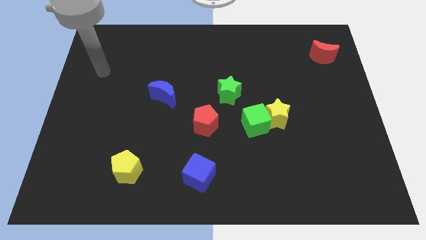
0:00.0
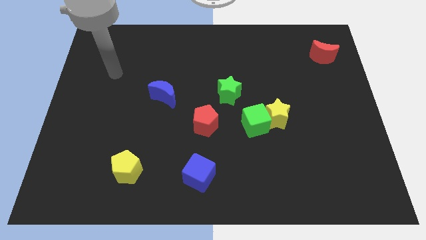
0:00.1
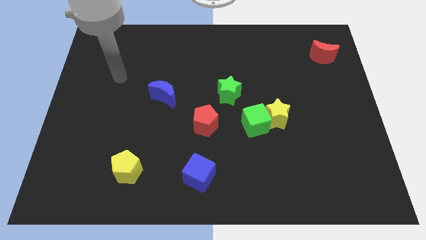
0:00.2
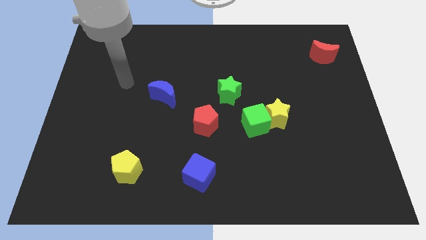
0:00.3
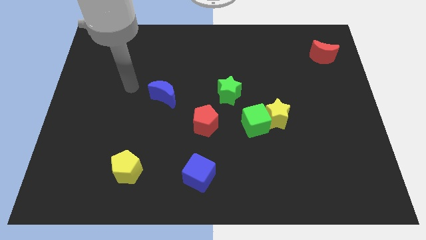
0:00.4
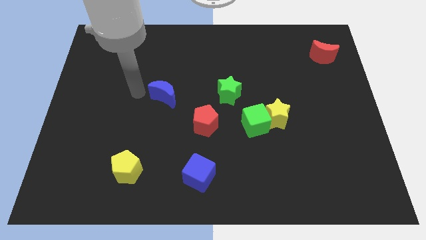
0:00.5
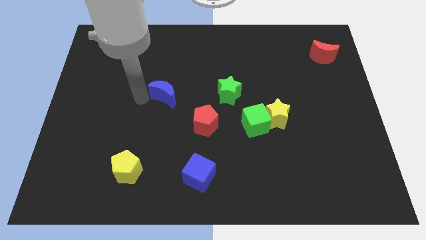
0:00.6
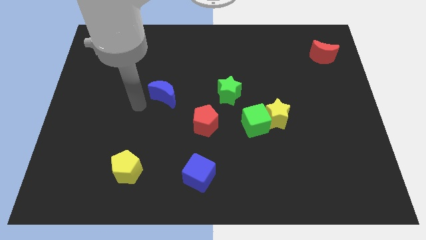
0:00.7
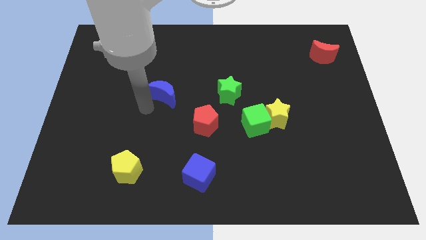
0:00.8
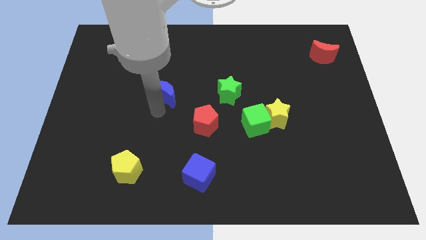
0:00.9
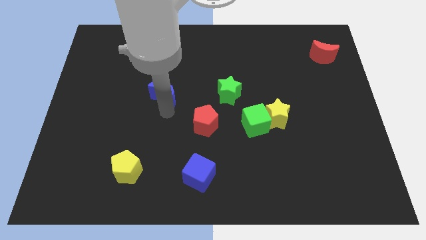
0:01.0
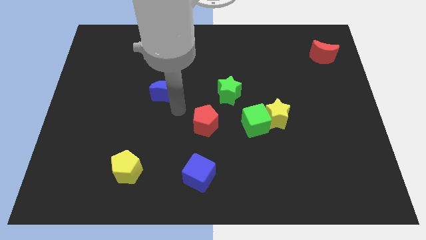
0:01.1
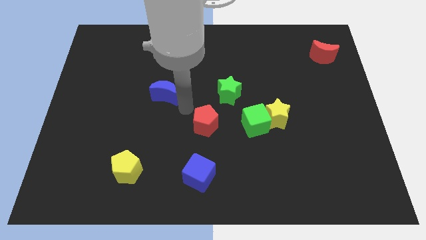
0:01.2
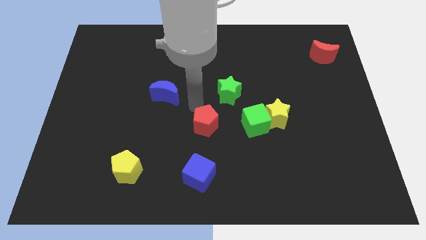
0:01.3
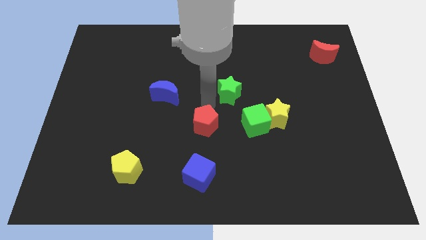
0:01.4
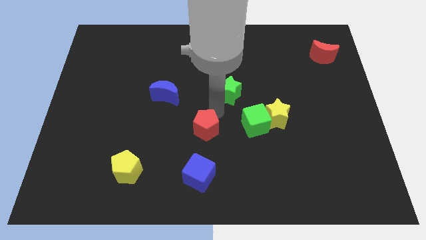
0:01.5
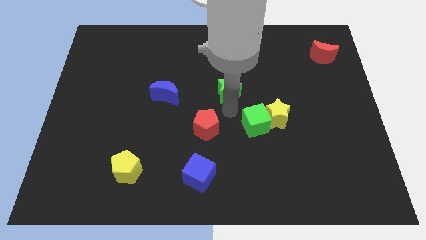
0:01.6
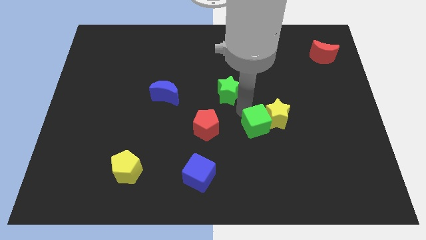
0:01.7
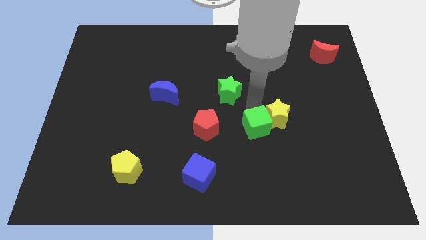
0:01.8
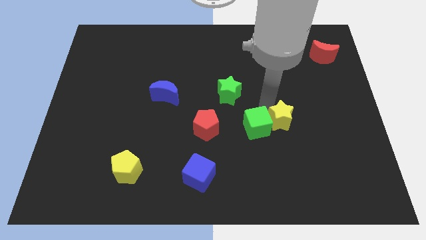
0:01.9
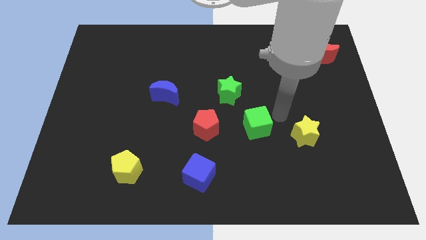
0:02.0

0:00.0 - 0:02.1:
move the green cube away from the yellow star

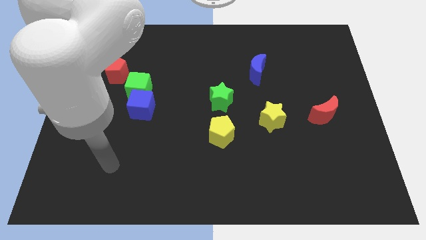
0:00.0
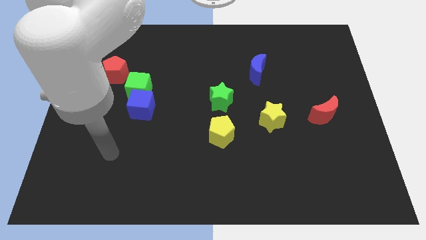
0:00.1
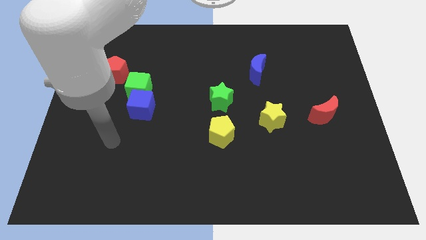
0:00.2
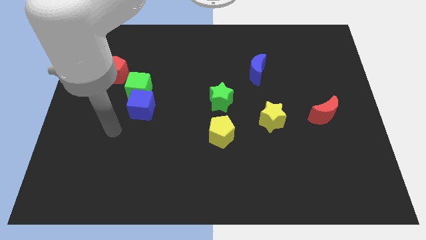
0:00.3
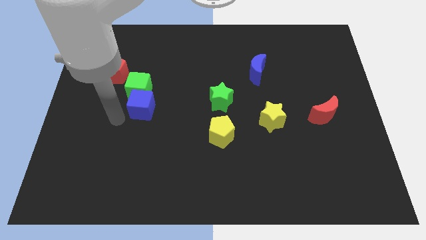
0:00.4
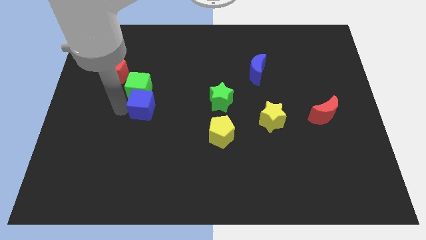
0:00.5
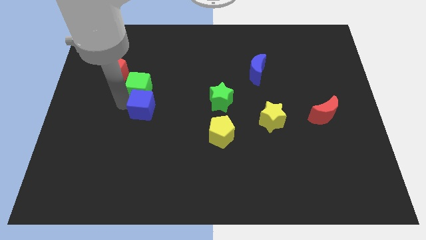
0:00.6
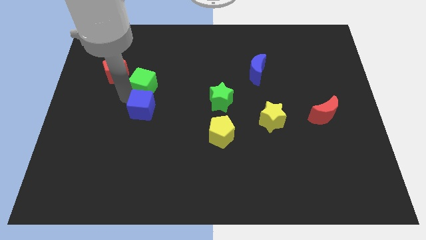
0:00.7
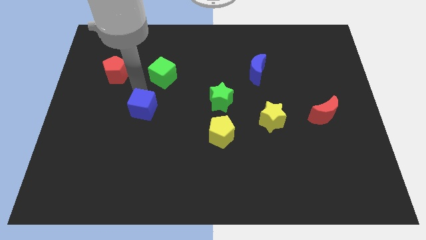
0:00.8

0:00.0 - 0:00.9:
separate the blue cube from the green cube

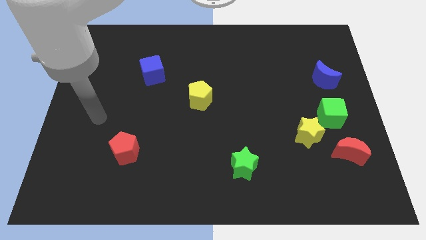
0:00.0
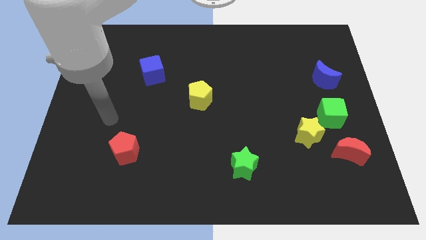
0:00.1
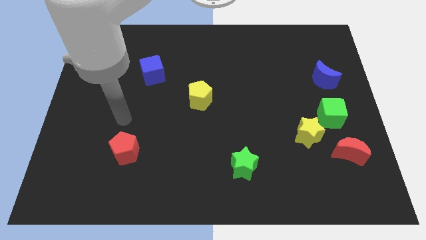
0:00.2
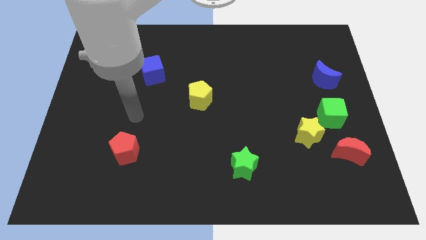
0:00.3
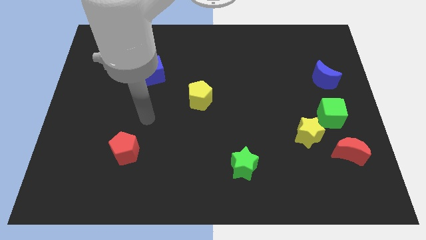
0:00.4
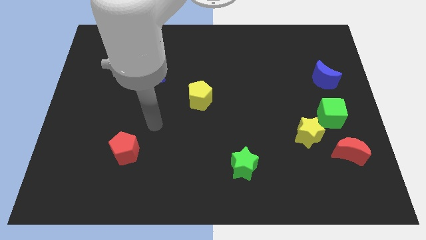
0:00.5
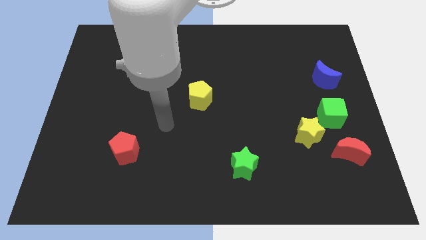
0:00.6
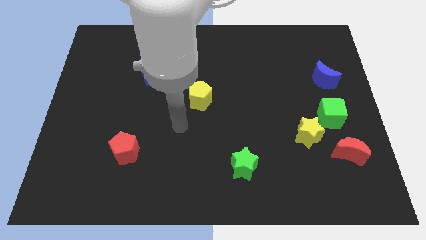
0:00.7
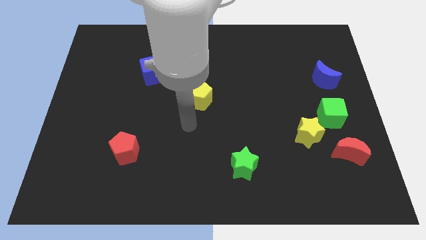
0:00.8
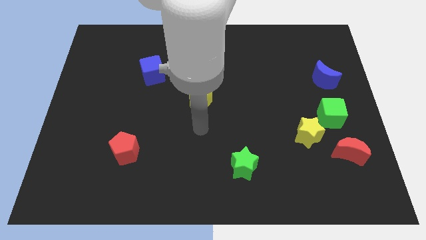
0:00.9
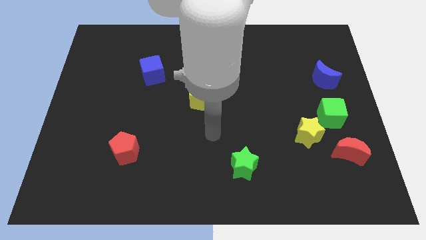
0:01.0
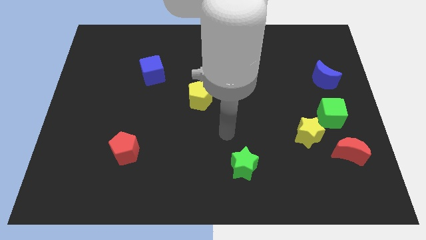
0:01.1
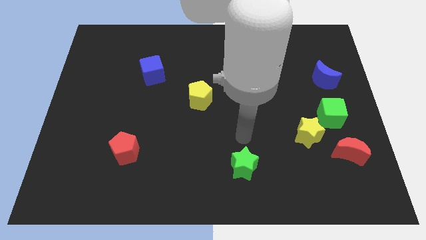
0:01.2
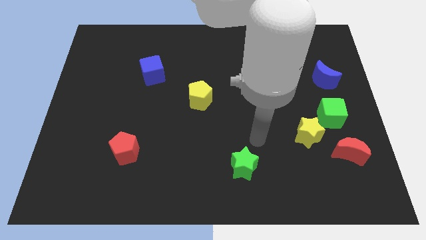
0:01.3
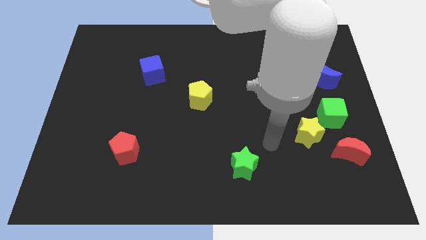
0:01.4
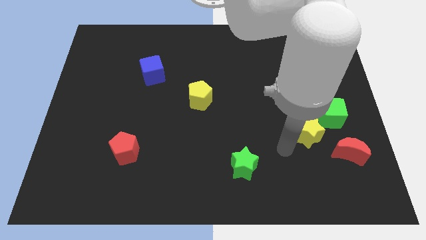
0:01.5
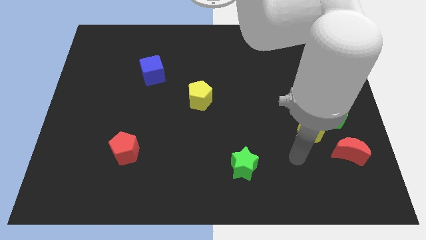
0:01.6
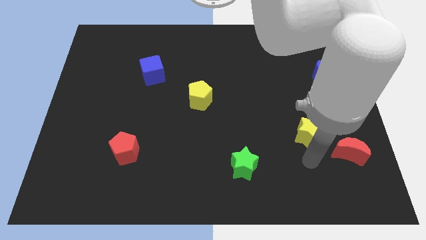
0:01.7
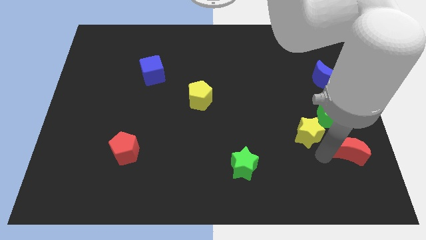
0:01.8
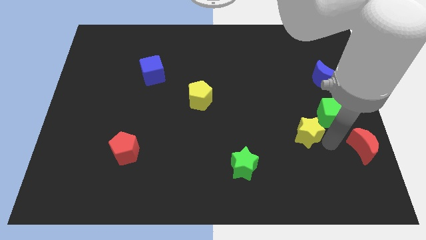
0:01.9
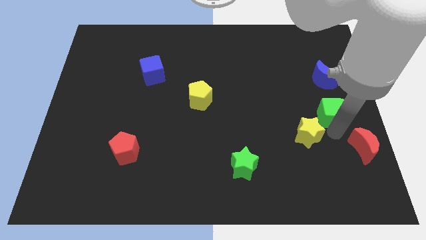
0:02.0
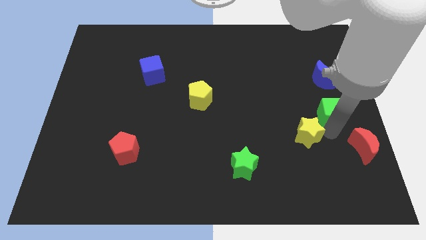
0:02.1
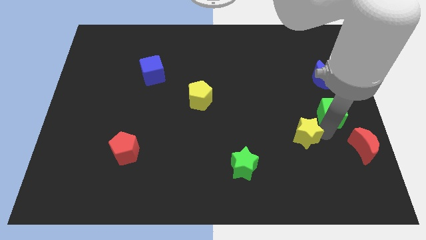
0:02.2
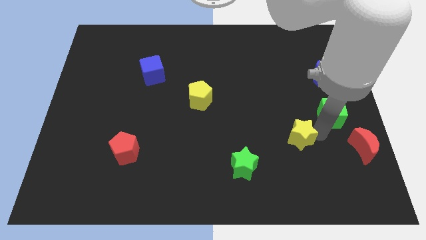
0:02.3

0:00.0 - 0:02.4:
pull the yellow star apart from the green cube and red moon

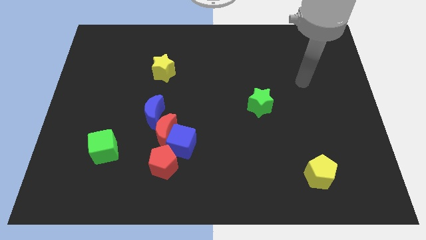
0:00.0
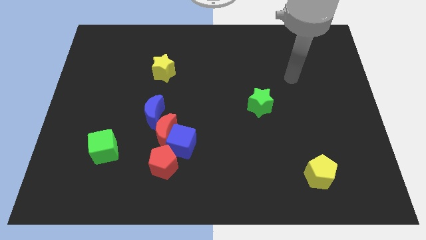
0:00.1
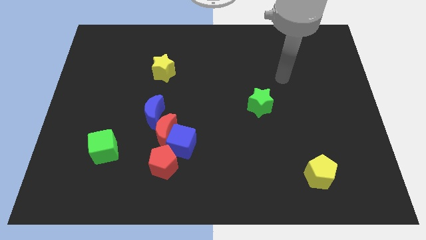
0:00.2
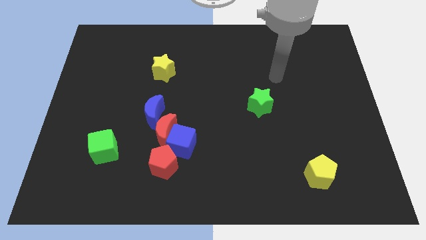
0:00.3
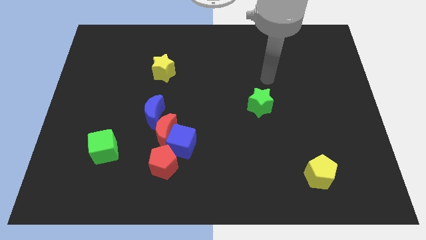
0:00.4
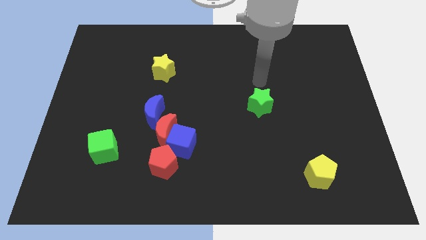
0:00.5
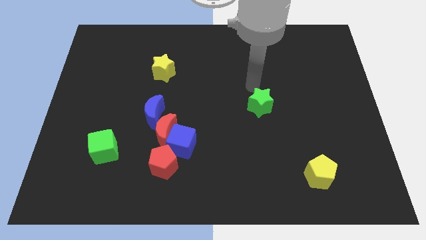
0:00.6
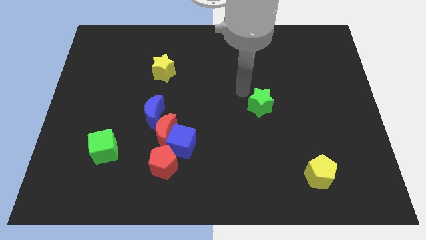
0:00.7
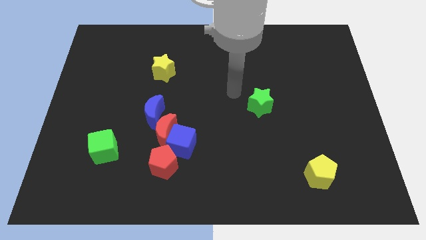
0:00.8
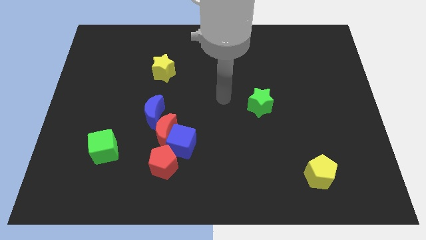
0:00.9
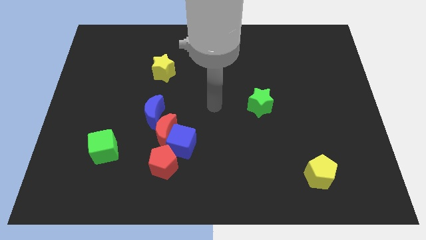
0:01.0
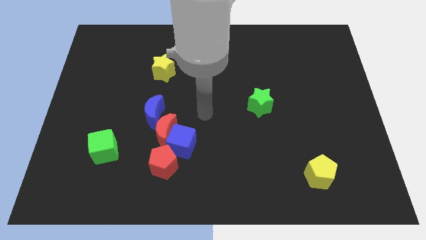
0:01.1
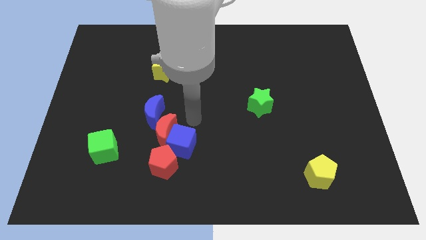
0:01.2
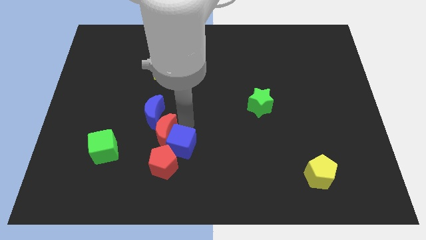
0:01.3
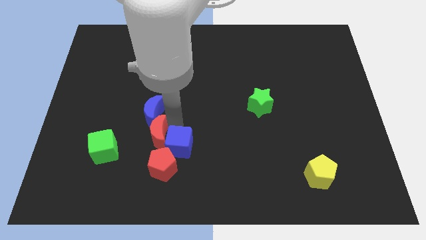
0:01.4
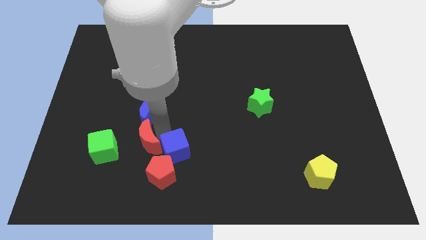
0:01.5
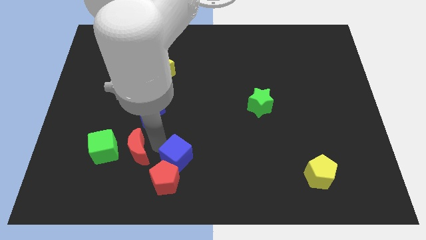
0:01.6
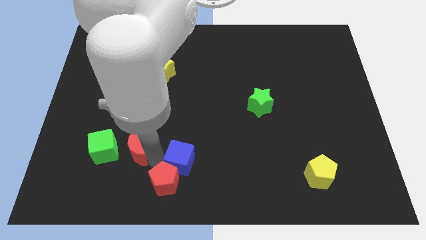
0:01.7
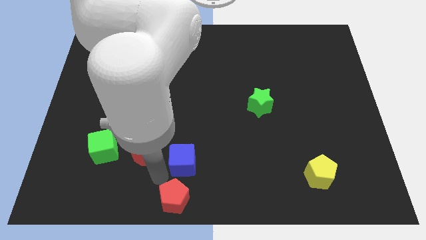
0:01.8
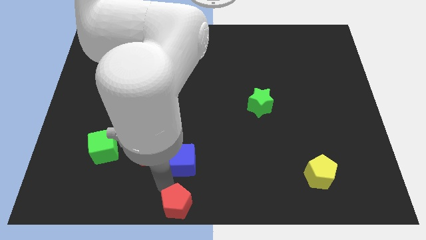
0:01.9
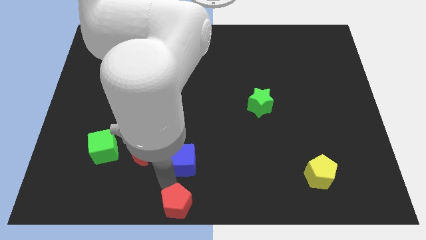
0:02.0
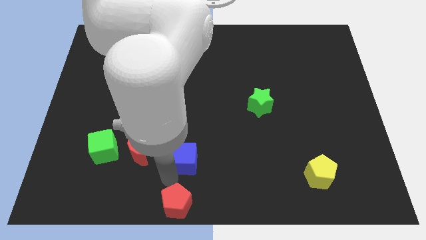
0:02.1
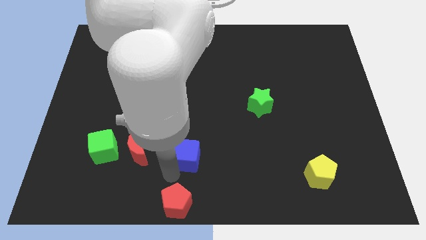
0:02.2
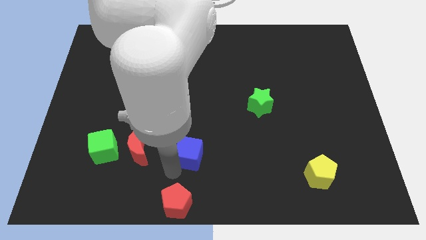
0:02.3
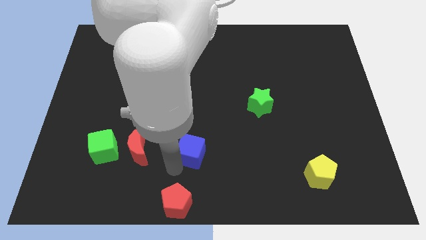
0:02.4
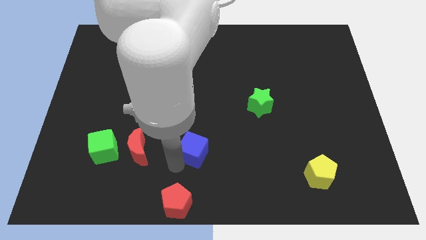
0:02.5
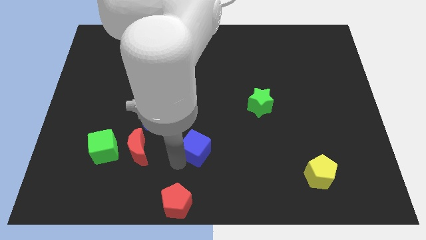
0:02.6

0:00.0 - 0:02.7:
move the blue cube away from the red moon and red pentagon

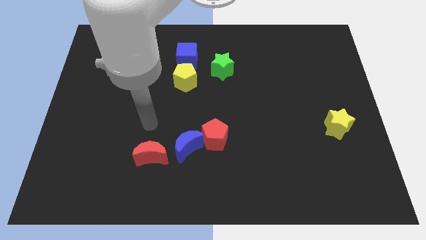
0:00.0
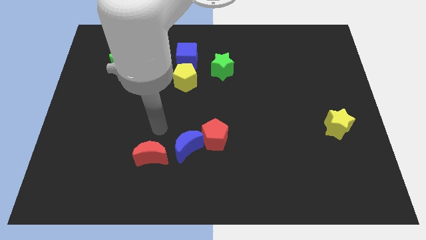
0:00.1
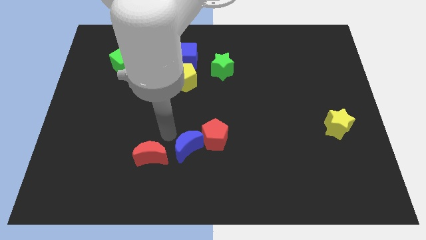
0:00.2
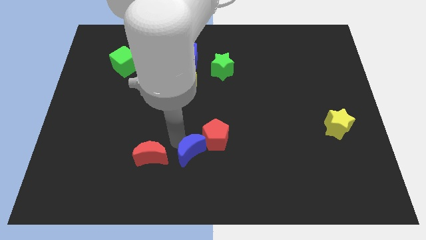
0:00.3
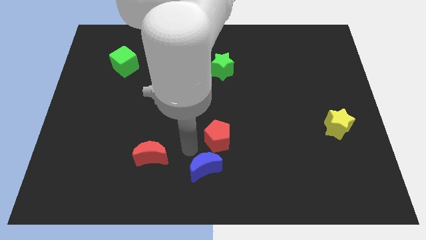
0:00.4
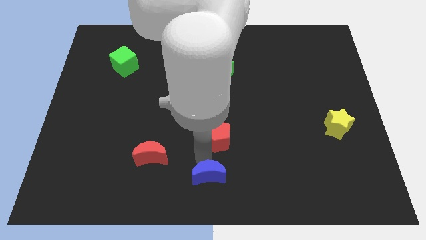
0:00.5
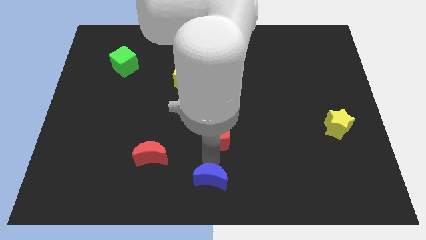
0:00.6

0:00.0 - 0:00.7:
separate the red pentagon from the blue moon

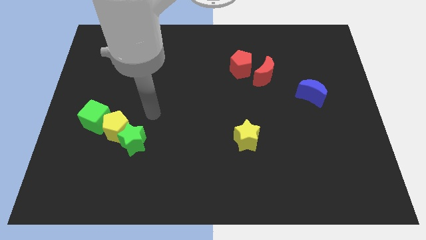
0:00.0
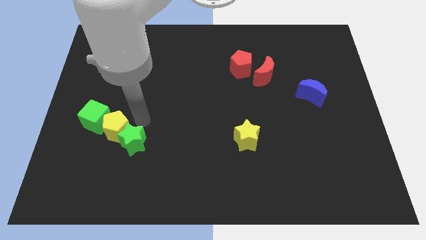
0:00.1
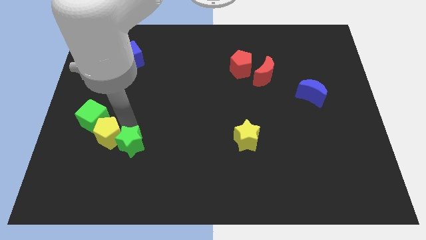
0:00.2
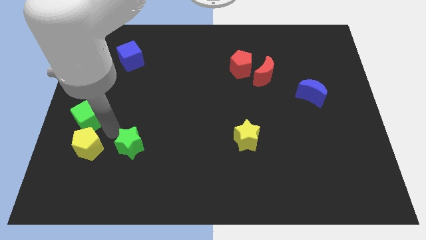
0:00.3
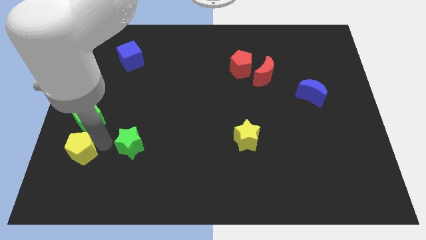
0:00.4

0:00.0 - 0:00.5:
pull the green star apart from the yellow pentagon
